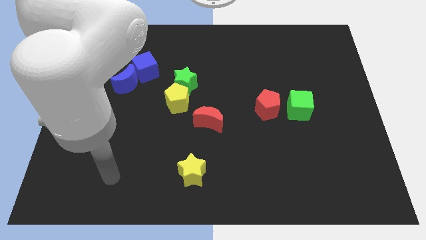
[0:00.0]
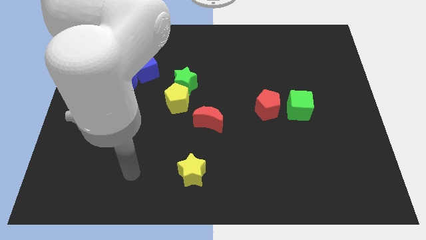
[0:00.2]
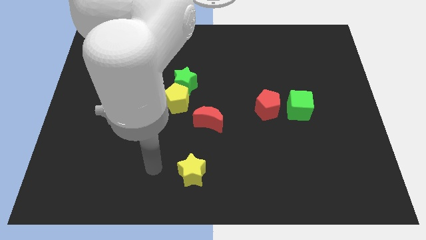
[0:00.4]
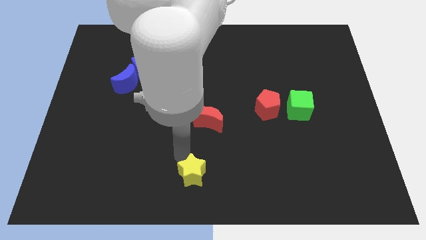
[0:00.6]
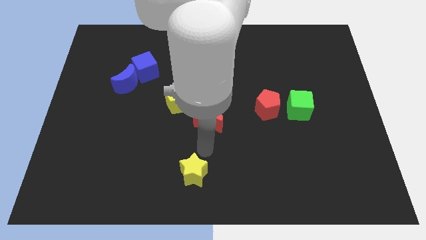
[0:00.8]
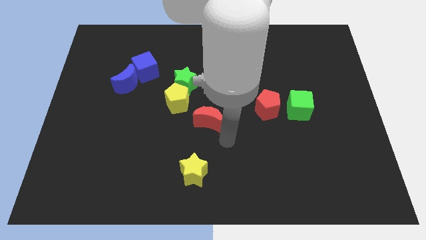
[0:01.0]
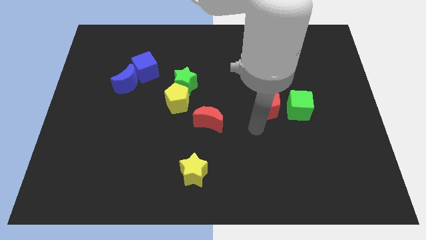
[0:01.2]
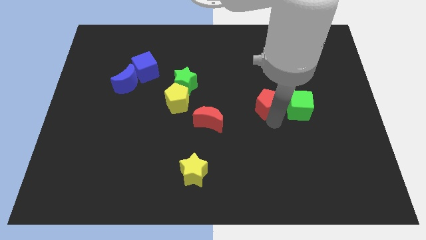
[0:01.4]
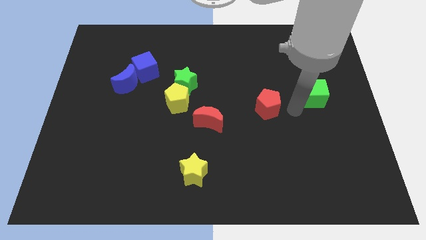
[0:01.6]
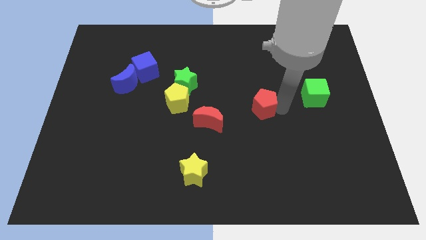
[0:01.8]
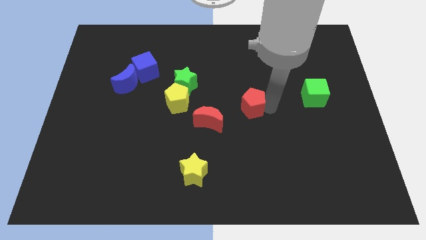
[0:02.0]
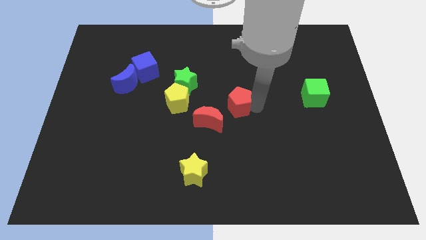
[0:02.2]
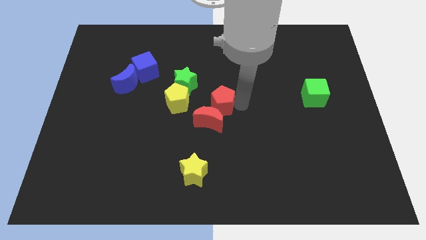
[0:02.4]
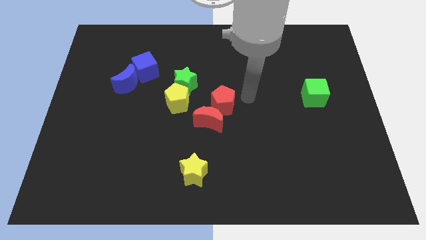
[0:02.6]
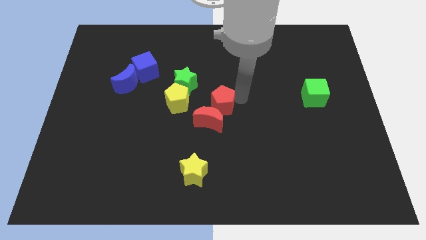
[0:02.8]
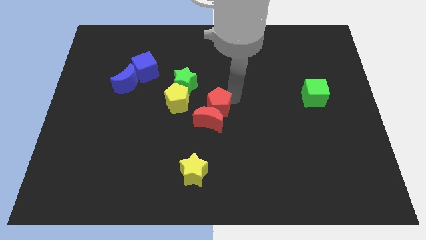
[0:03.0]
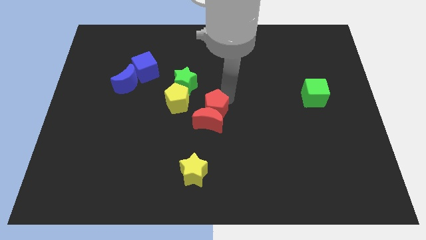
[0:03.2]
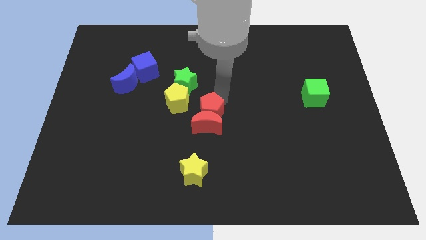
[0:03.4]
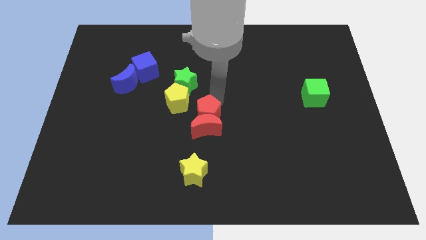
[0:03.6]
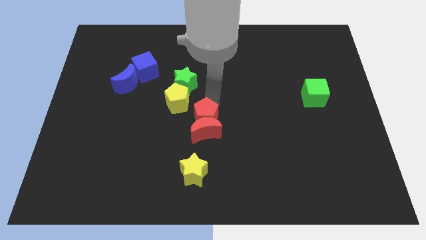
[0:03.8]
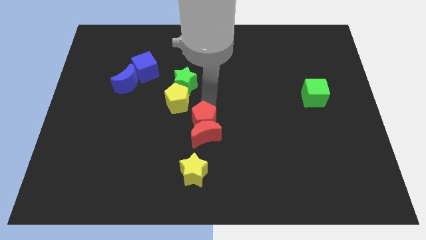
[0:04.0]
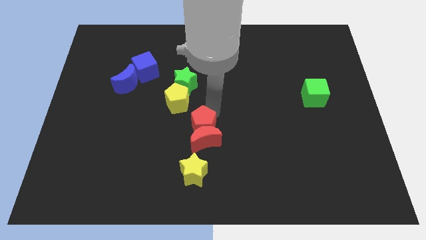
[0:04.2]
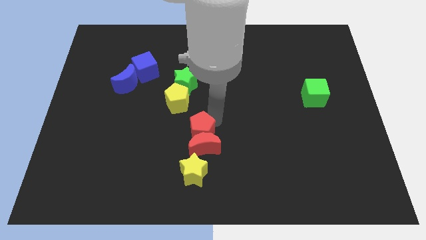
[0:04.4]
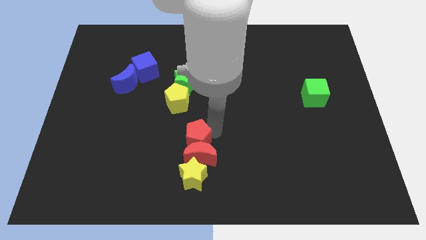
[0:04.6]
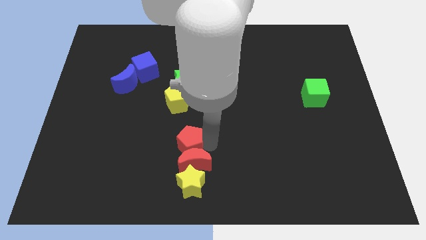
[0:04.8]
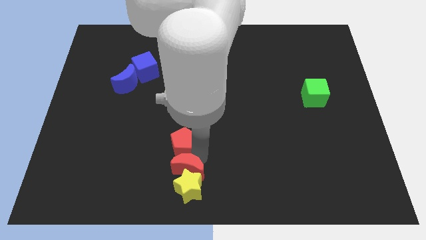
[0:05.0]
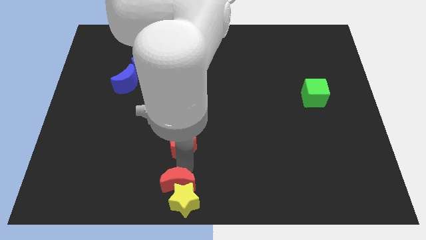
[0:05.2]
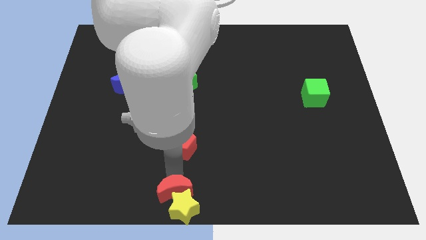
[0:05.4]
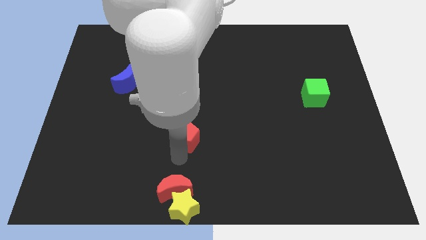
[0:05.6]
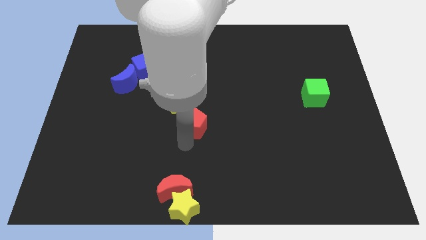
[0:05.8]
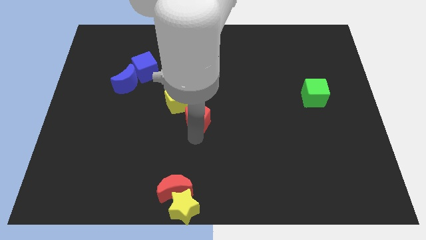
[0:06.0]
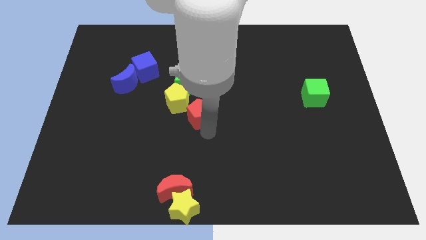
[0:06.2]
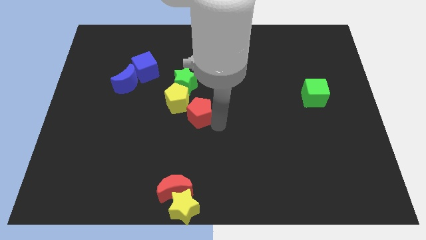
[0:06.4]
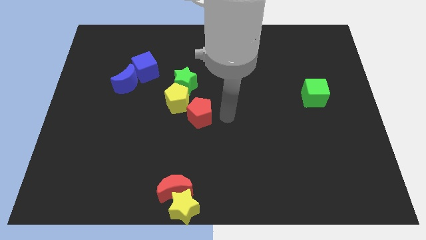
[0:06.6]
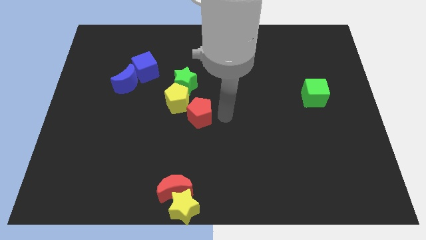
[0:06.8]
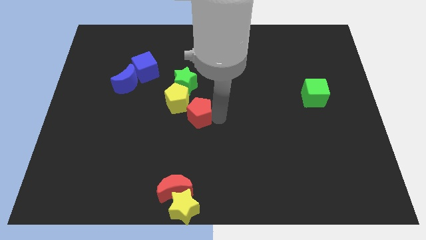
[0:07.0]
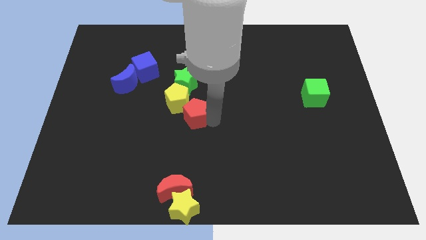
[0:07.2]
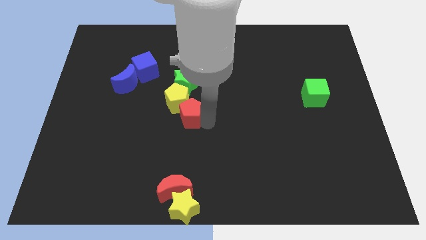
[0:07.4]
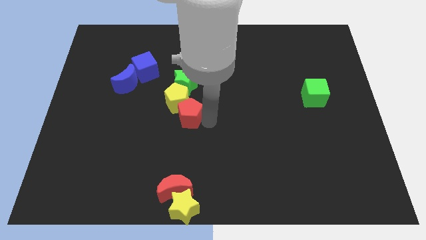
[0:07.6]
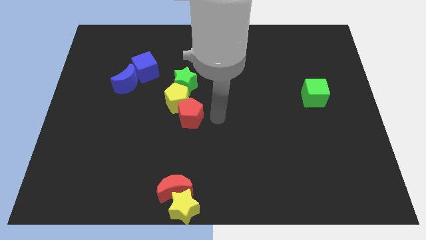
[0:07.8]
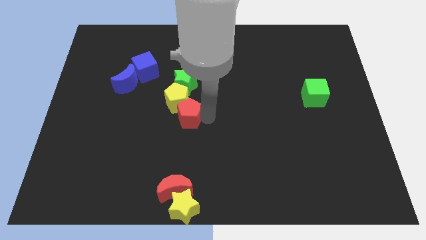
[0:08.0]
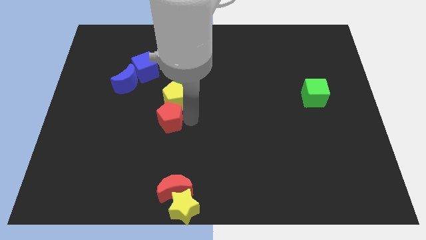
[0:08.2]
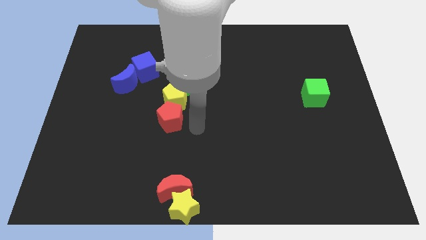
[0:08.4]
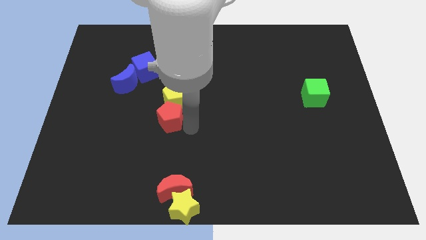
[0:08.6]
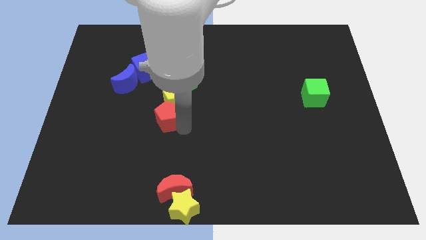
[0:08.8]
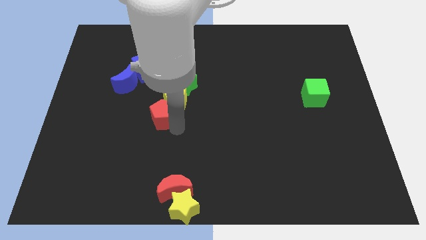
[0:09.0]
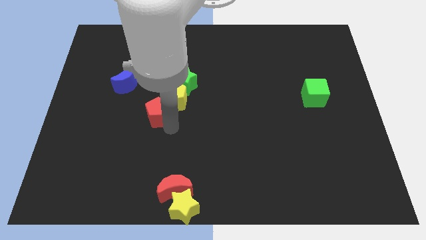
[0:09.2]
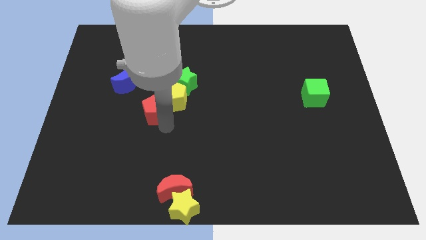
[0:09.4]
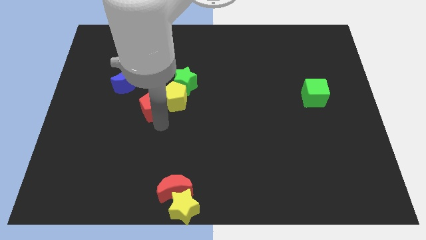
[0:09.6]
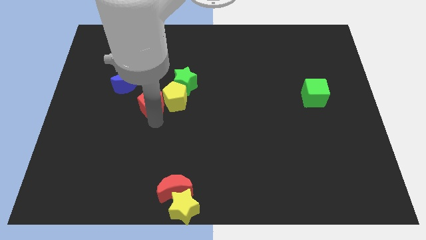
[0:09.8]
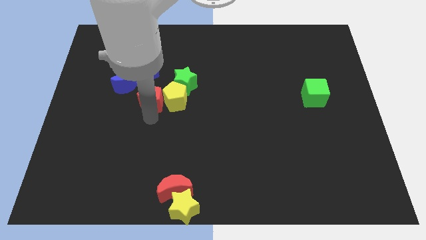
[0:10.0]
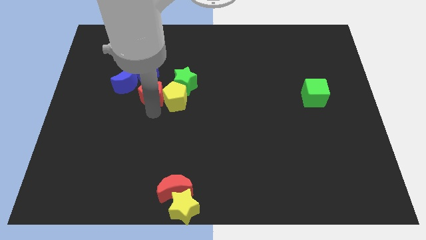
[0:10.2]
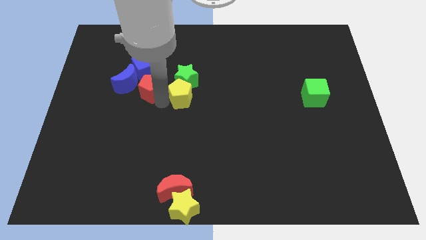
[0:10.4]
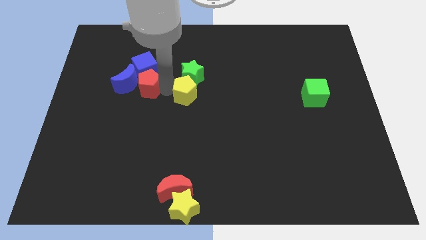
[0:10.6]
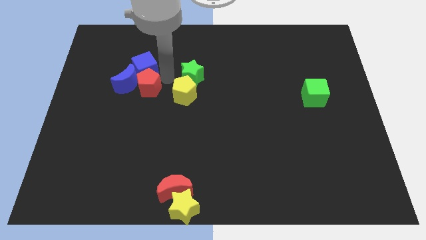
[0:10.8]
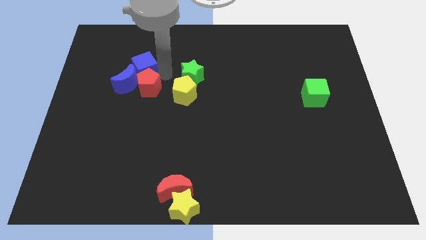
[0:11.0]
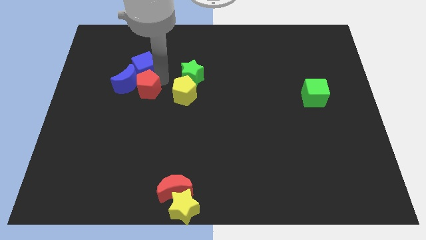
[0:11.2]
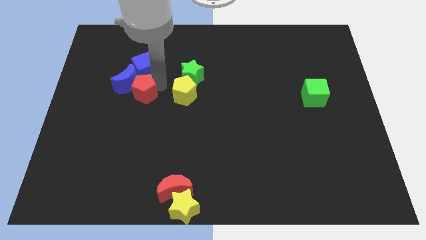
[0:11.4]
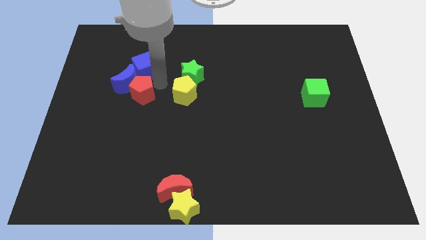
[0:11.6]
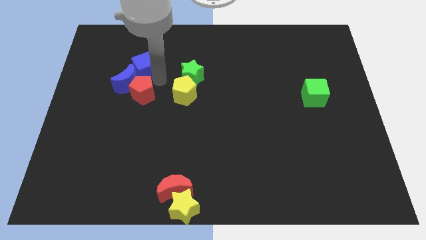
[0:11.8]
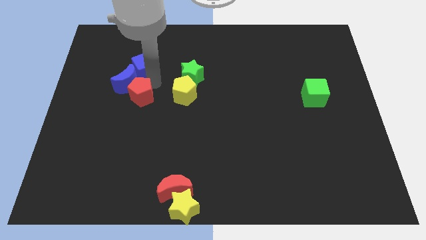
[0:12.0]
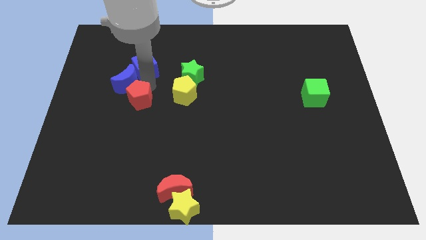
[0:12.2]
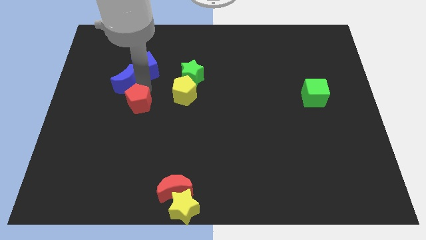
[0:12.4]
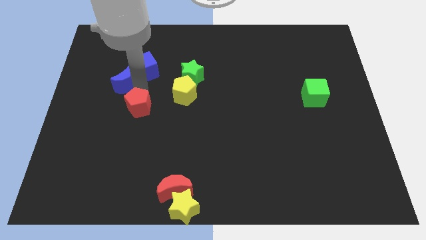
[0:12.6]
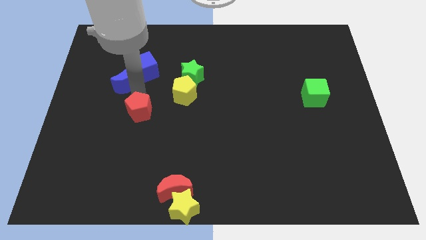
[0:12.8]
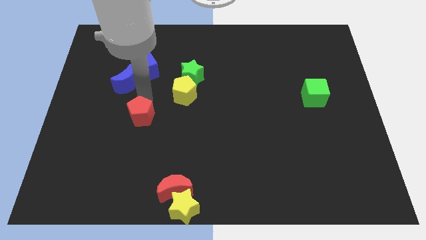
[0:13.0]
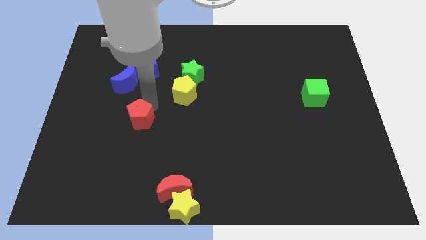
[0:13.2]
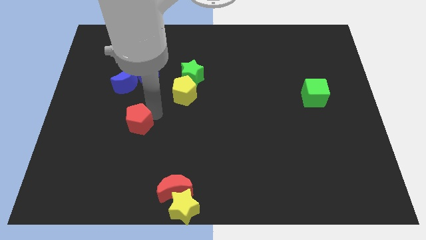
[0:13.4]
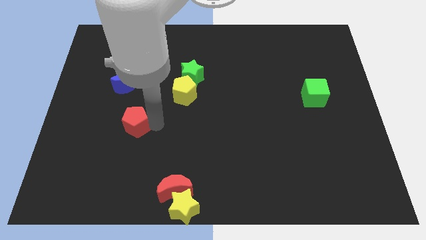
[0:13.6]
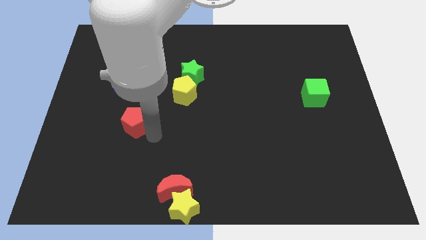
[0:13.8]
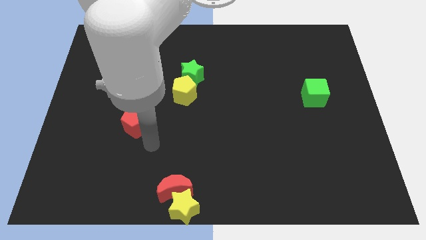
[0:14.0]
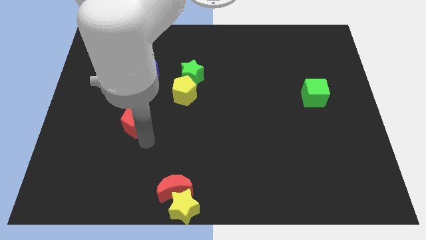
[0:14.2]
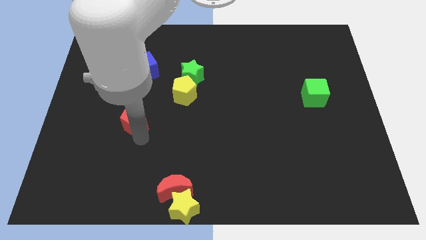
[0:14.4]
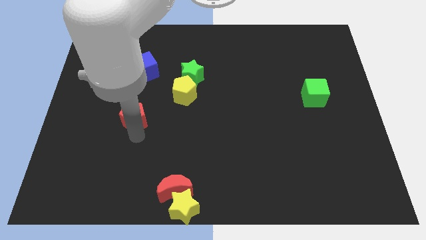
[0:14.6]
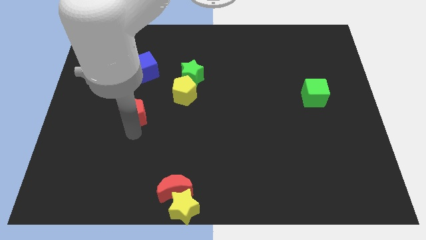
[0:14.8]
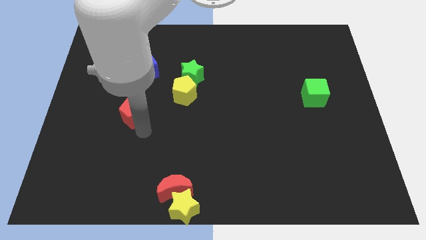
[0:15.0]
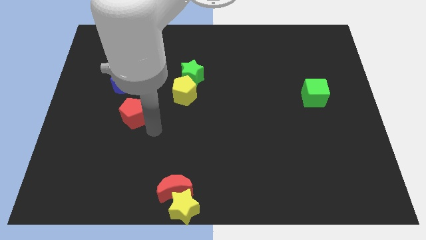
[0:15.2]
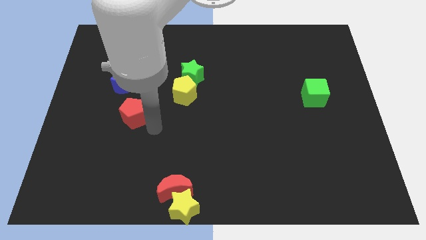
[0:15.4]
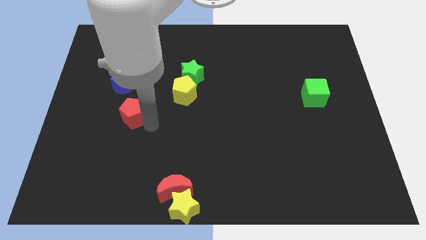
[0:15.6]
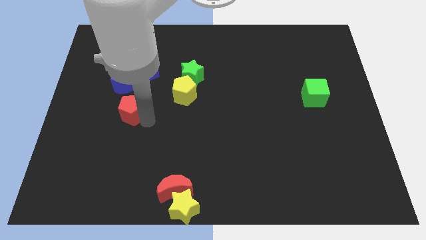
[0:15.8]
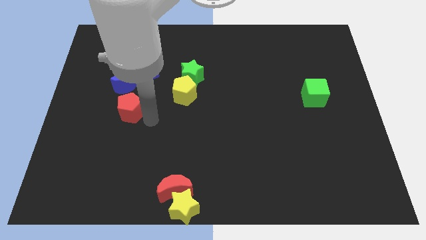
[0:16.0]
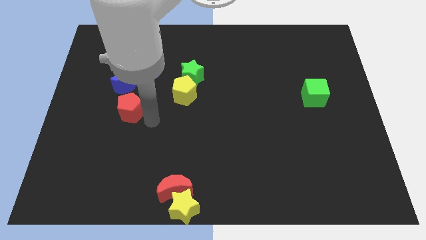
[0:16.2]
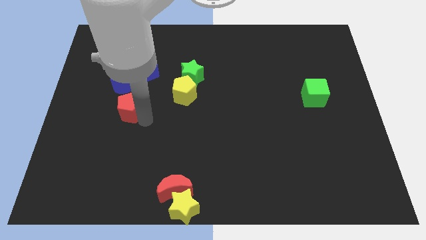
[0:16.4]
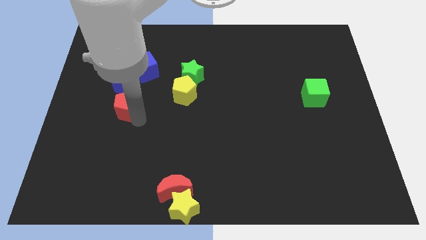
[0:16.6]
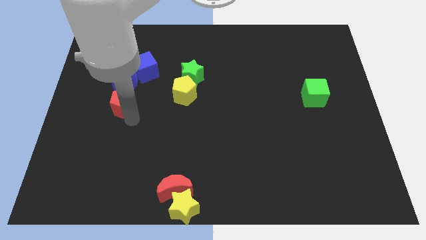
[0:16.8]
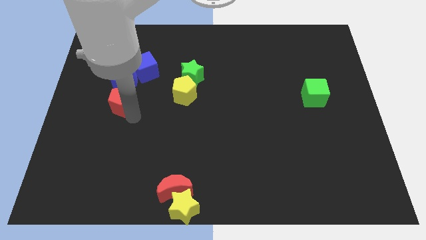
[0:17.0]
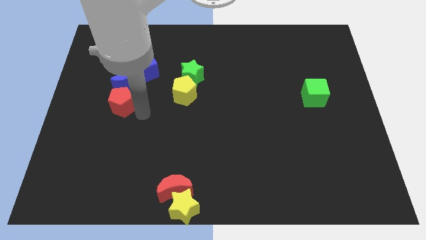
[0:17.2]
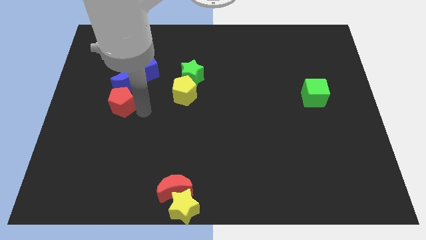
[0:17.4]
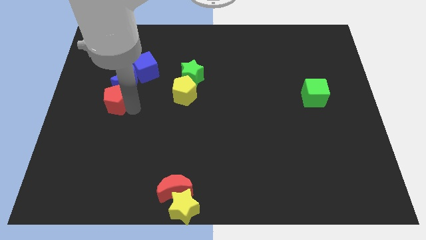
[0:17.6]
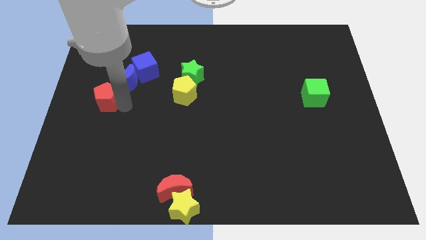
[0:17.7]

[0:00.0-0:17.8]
push the red pentagon to the left side
